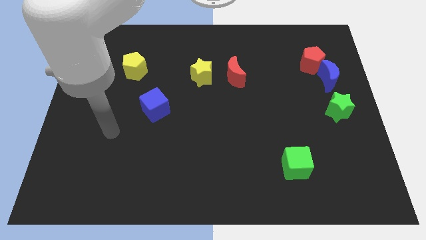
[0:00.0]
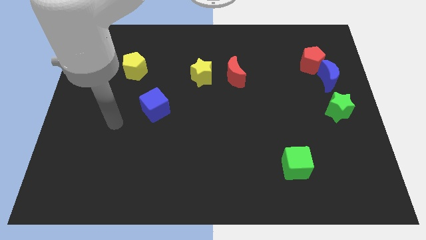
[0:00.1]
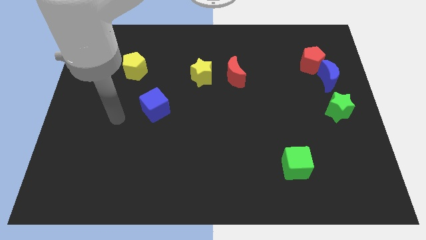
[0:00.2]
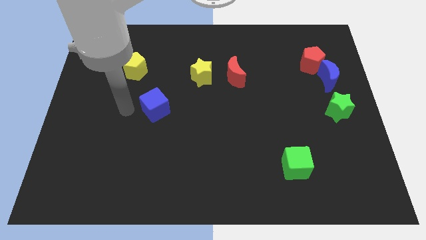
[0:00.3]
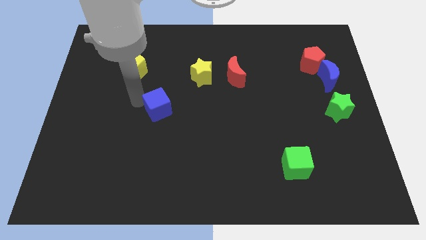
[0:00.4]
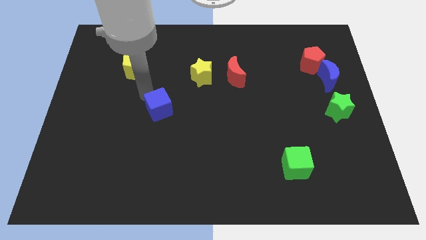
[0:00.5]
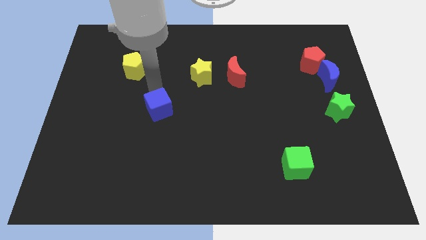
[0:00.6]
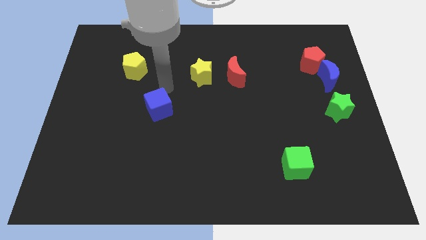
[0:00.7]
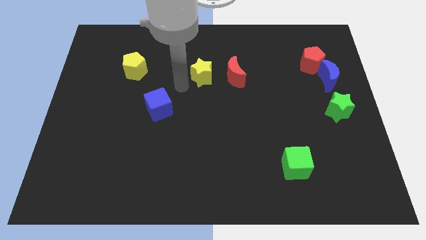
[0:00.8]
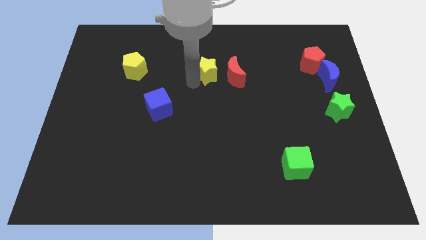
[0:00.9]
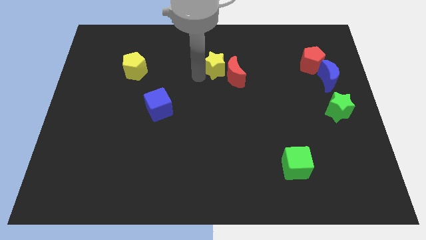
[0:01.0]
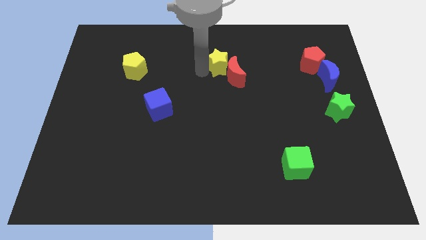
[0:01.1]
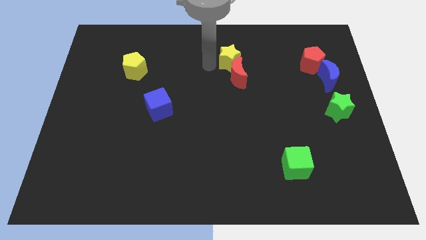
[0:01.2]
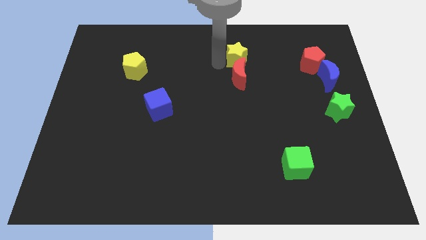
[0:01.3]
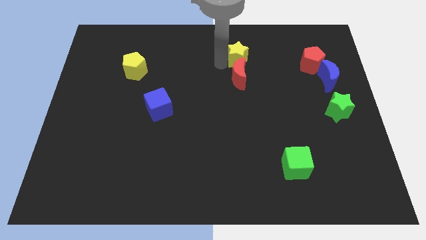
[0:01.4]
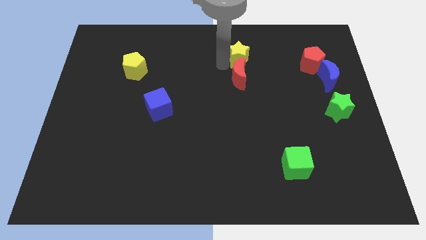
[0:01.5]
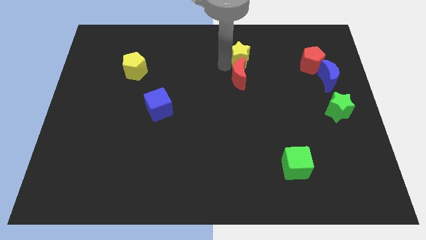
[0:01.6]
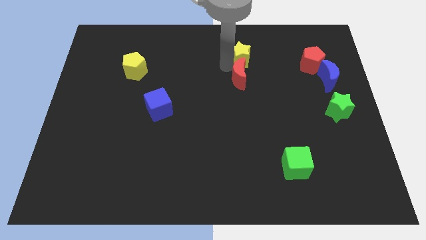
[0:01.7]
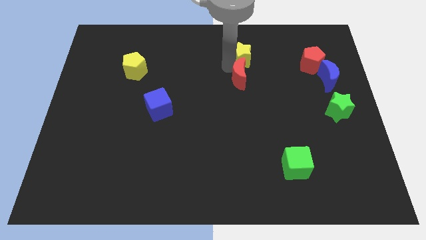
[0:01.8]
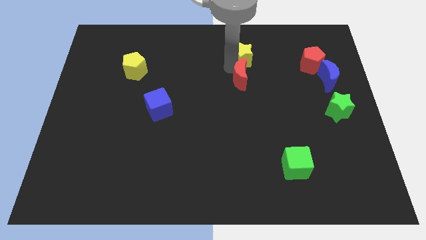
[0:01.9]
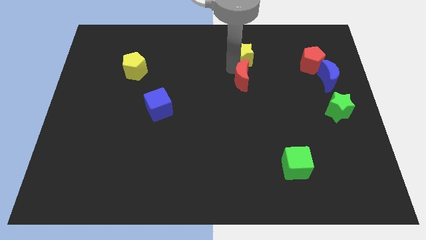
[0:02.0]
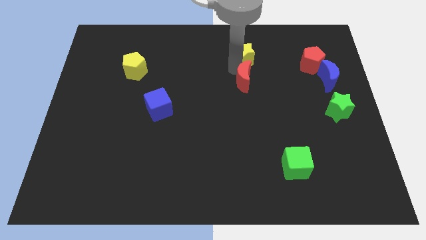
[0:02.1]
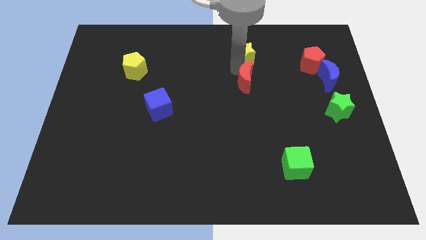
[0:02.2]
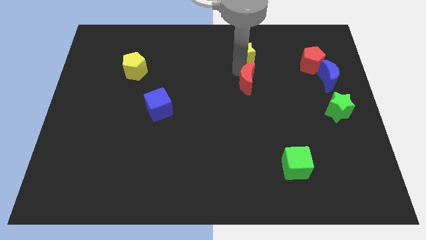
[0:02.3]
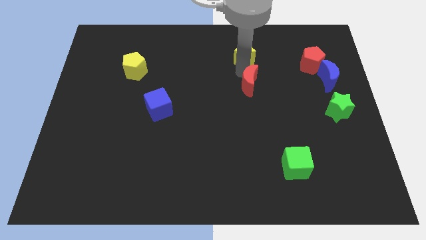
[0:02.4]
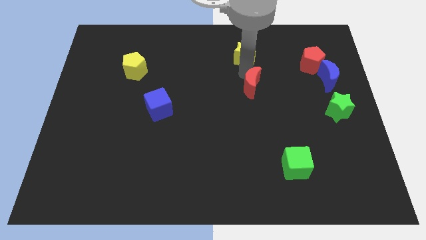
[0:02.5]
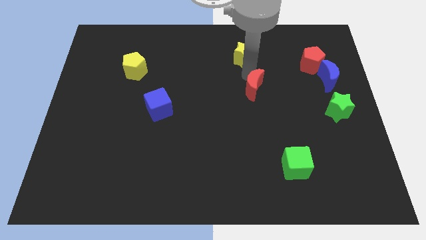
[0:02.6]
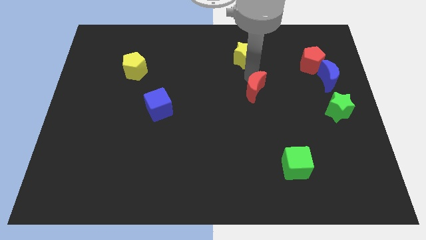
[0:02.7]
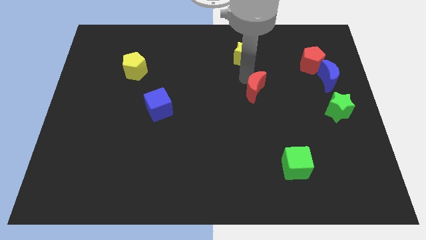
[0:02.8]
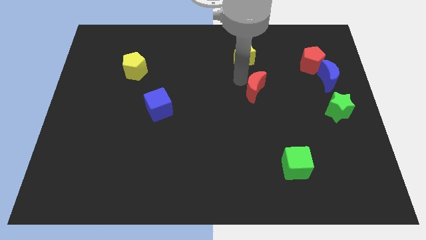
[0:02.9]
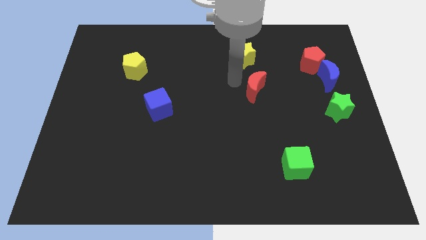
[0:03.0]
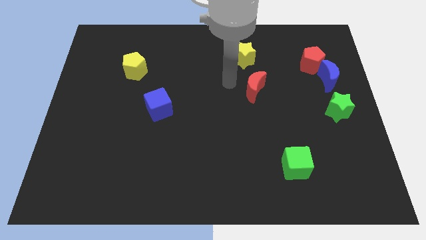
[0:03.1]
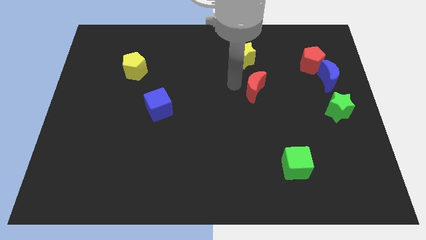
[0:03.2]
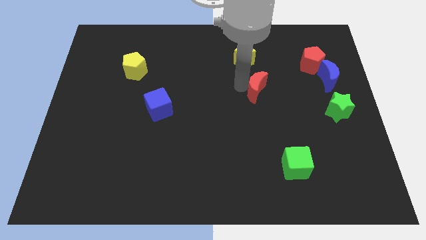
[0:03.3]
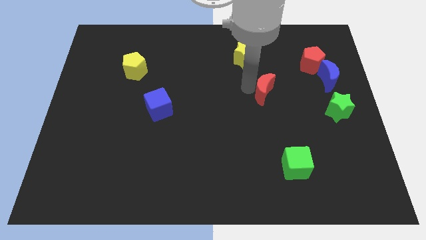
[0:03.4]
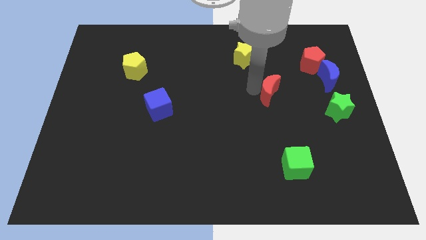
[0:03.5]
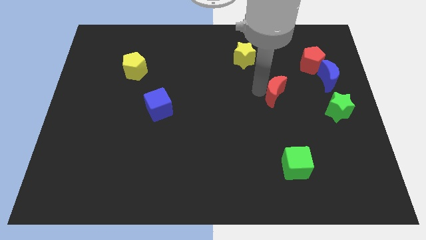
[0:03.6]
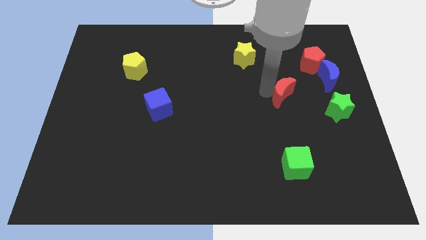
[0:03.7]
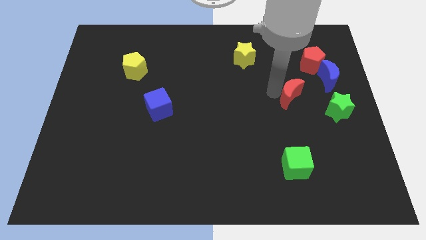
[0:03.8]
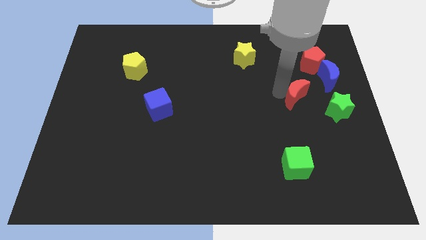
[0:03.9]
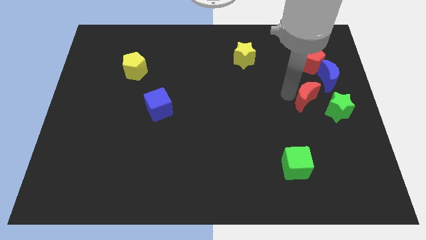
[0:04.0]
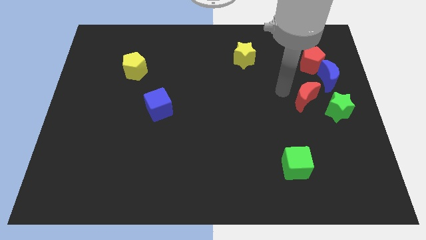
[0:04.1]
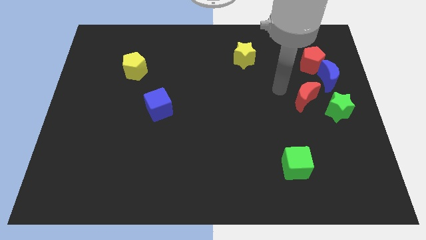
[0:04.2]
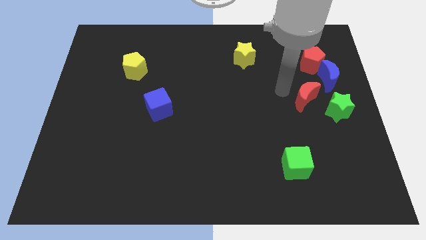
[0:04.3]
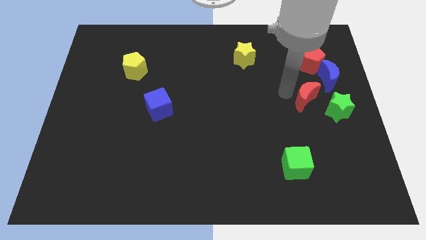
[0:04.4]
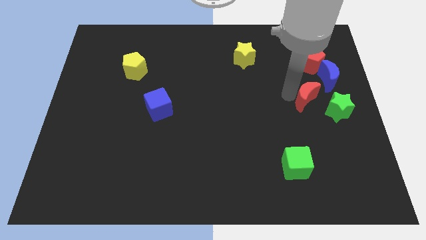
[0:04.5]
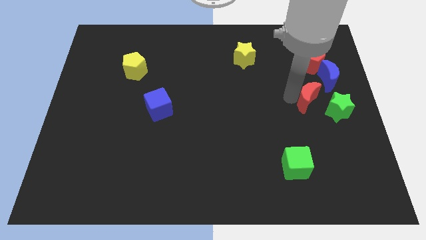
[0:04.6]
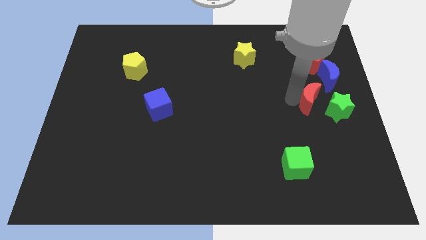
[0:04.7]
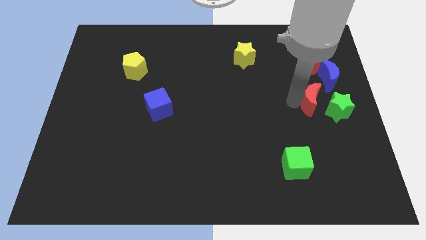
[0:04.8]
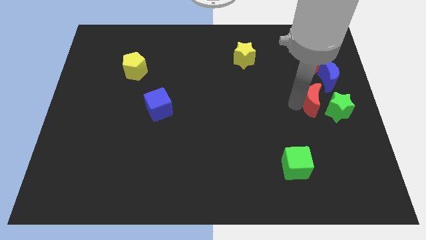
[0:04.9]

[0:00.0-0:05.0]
put the red moon next to the green star

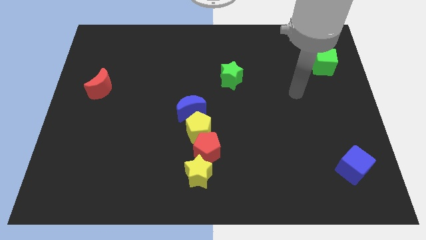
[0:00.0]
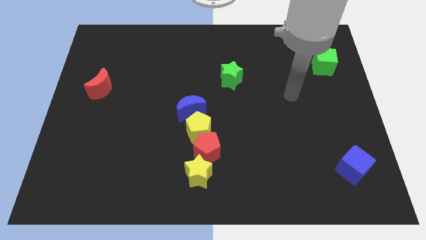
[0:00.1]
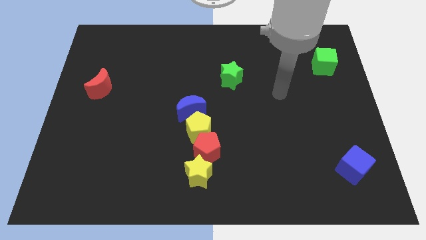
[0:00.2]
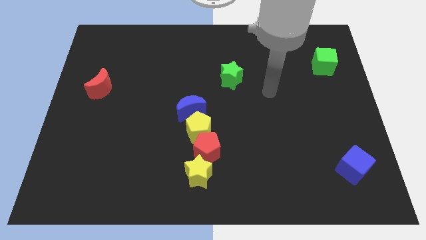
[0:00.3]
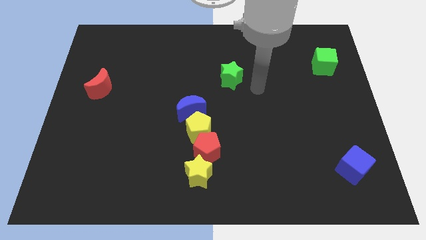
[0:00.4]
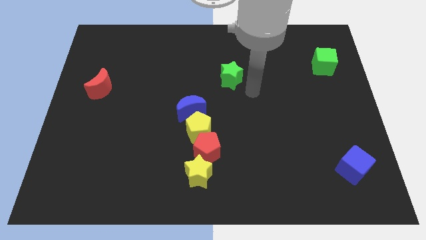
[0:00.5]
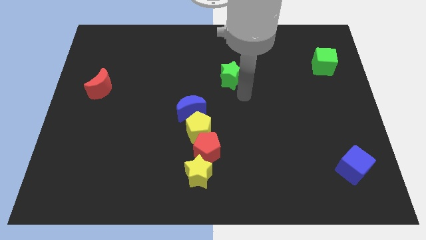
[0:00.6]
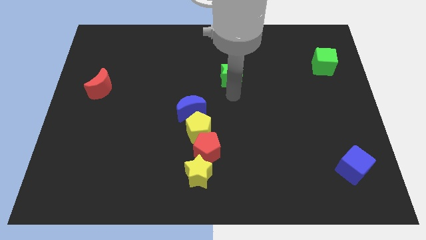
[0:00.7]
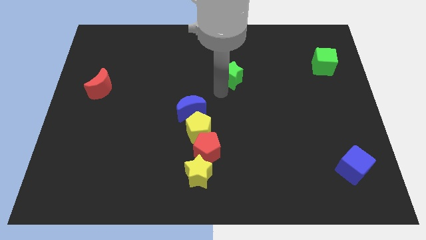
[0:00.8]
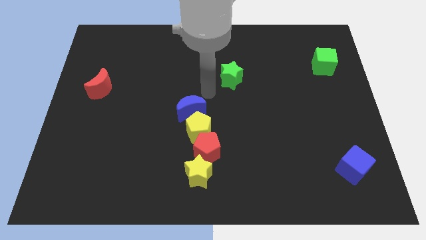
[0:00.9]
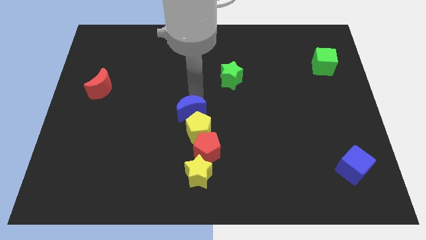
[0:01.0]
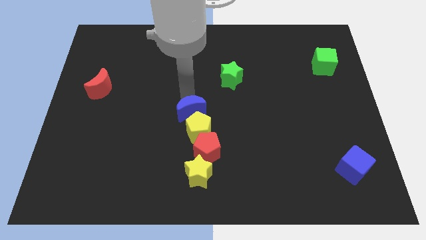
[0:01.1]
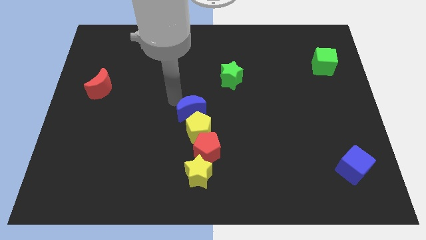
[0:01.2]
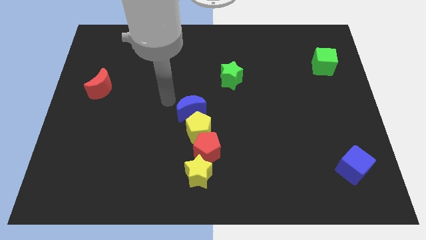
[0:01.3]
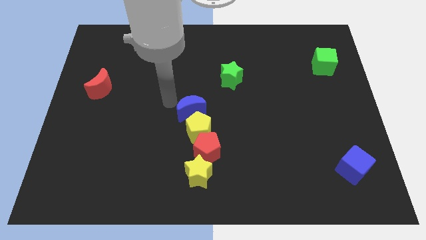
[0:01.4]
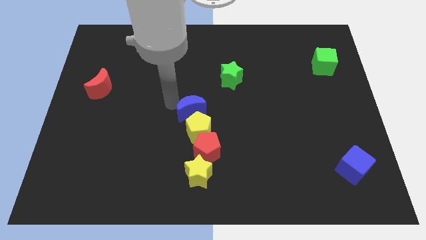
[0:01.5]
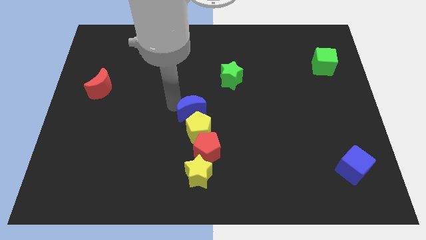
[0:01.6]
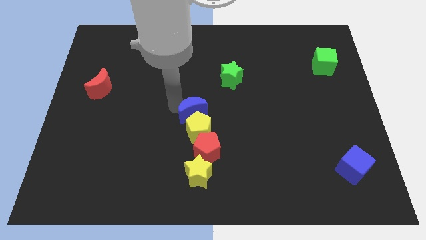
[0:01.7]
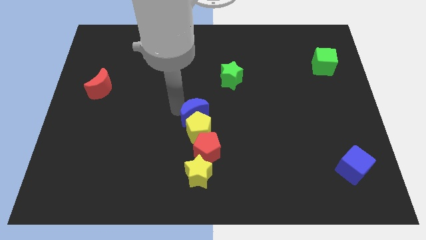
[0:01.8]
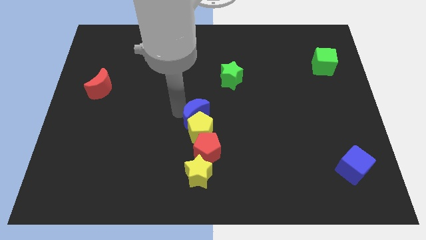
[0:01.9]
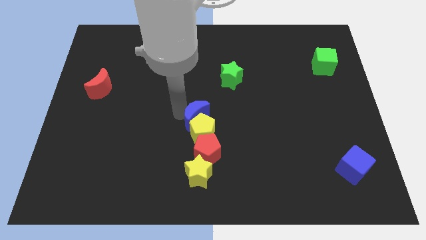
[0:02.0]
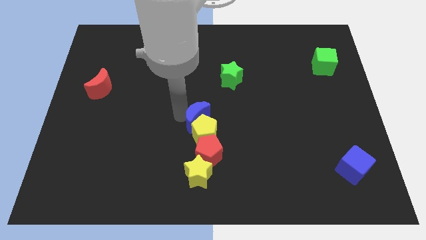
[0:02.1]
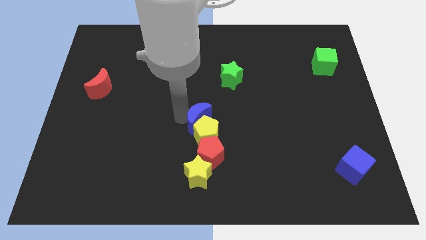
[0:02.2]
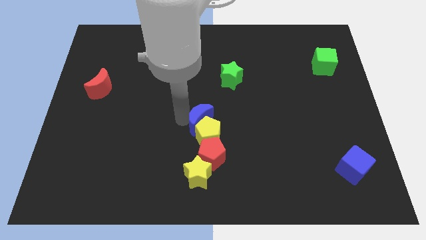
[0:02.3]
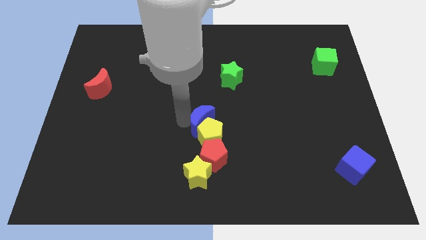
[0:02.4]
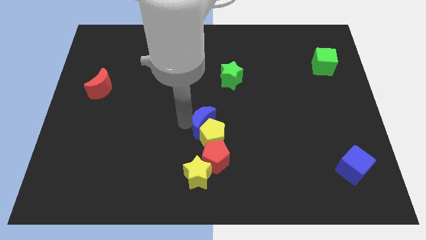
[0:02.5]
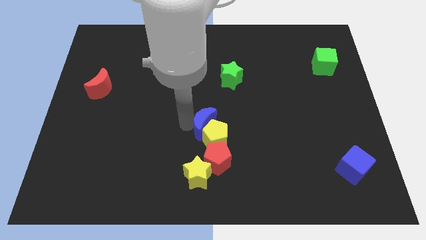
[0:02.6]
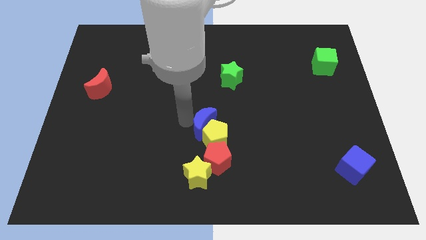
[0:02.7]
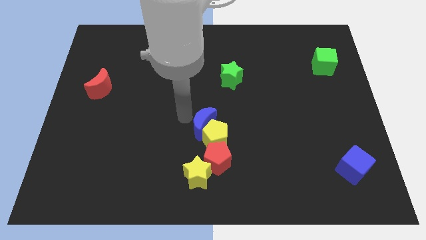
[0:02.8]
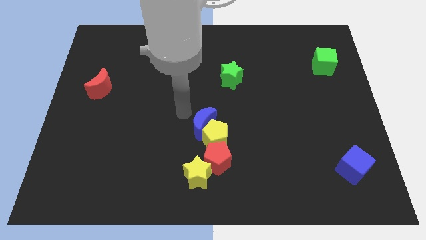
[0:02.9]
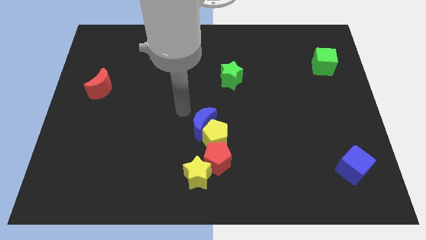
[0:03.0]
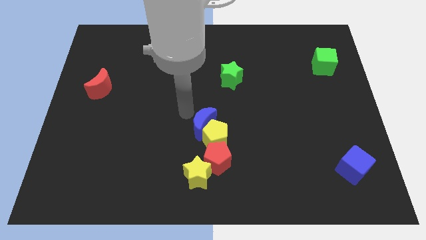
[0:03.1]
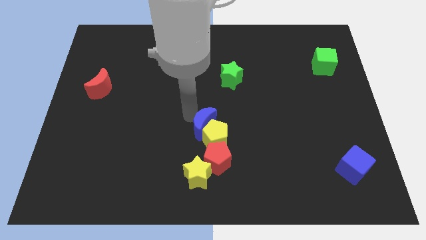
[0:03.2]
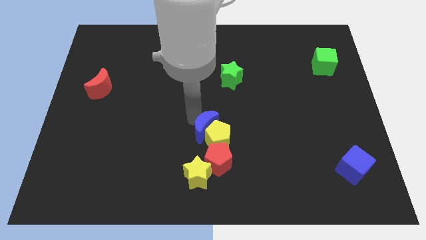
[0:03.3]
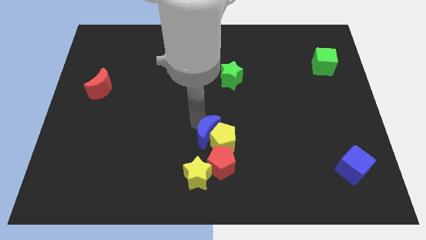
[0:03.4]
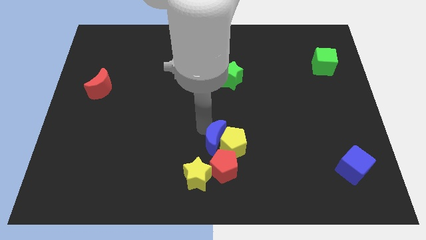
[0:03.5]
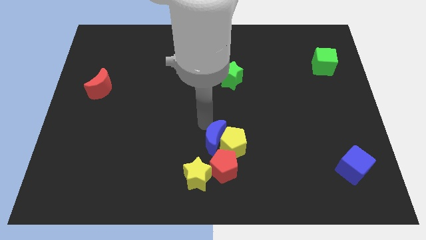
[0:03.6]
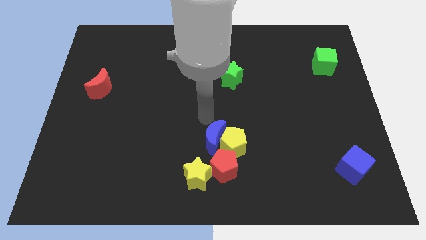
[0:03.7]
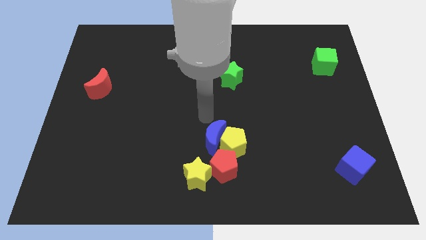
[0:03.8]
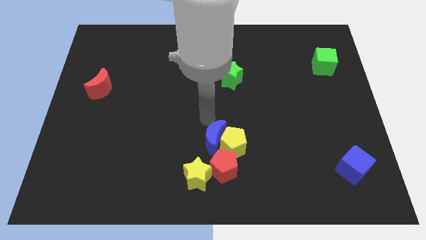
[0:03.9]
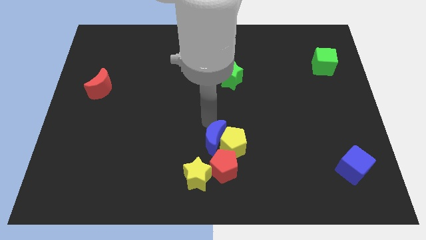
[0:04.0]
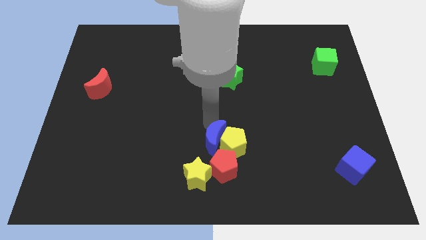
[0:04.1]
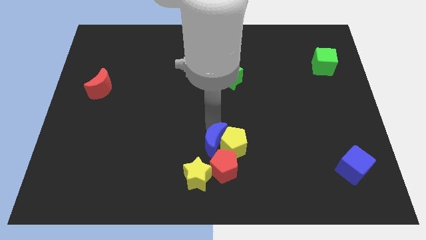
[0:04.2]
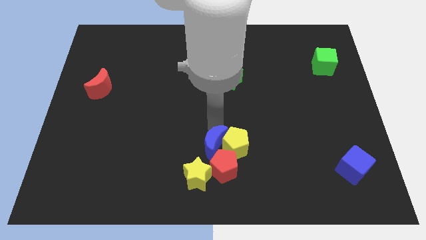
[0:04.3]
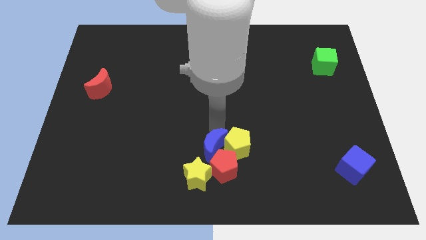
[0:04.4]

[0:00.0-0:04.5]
move the blue moon to the red pentagon
